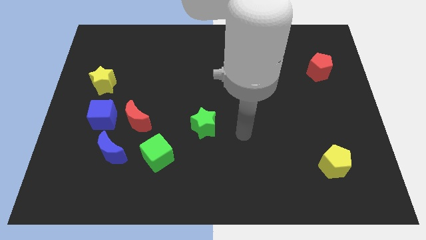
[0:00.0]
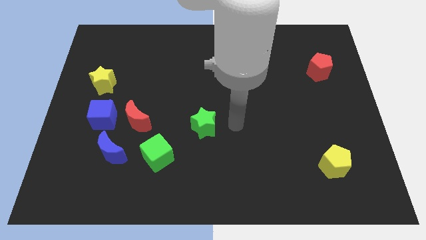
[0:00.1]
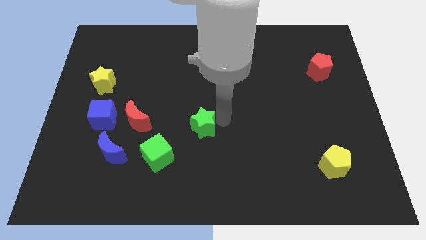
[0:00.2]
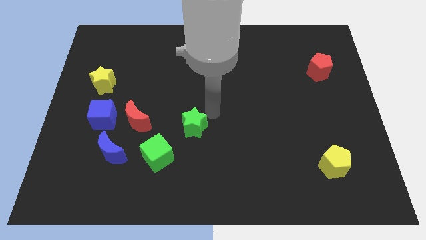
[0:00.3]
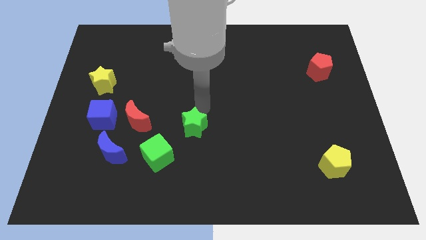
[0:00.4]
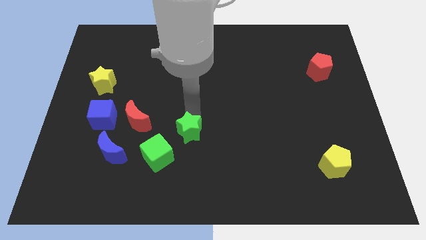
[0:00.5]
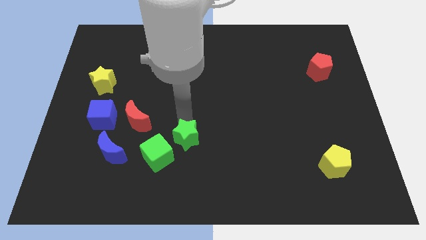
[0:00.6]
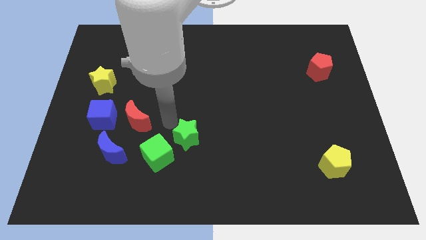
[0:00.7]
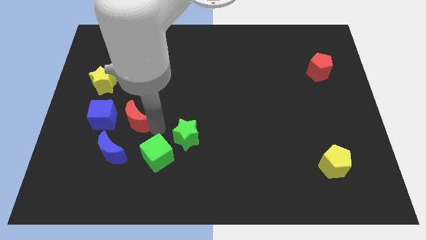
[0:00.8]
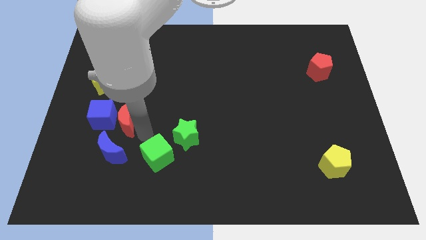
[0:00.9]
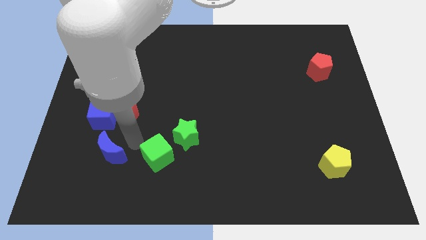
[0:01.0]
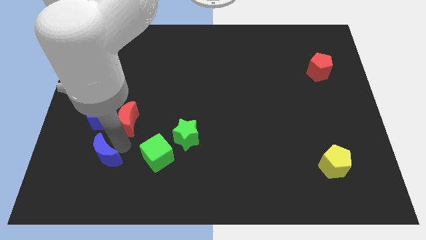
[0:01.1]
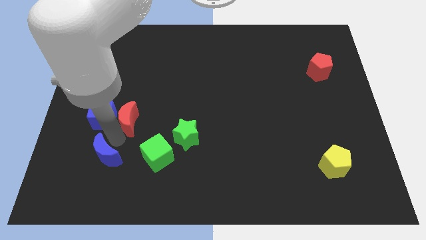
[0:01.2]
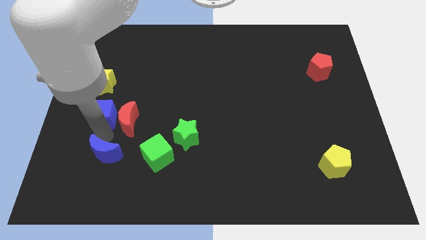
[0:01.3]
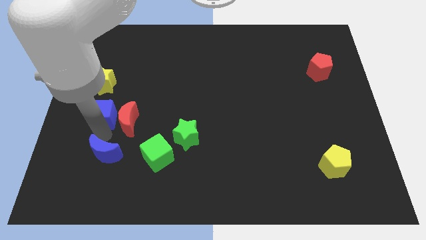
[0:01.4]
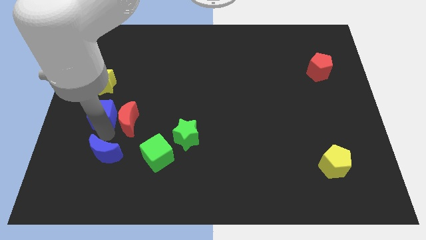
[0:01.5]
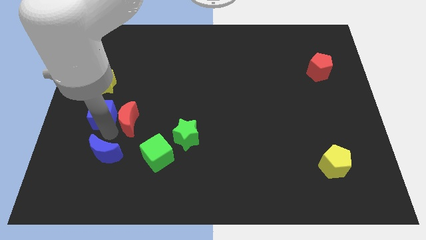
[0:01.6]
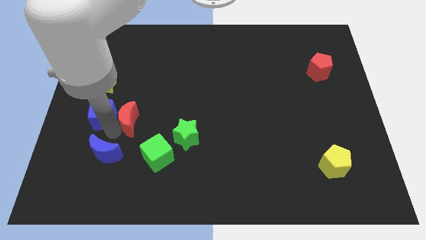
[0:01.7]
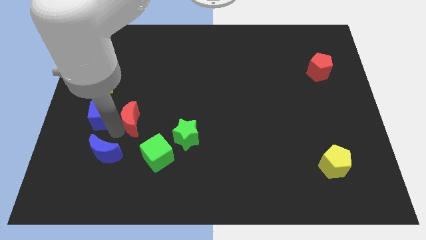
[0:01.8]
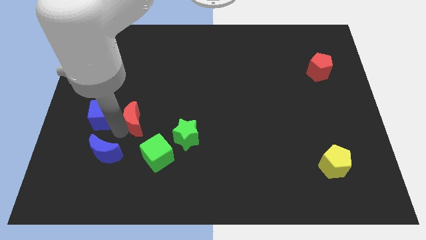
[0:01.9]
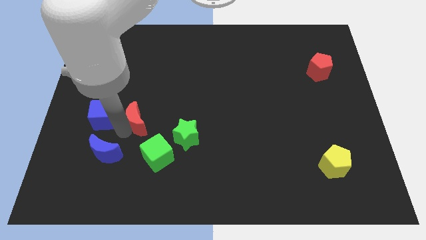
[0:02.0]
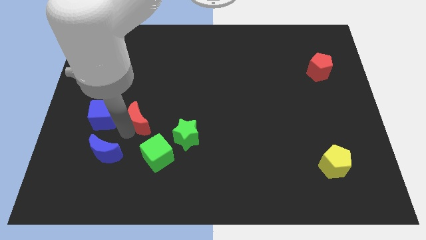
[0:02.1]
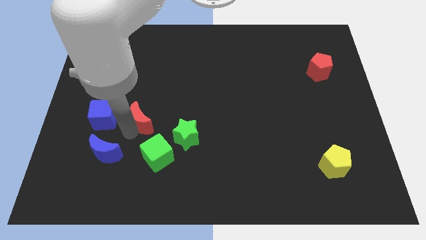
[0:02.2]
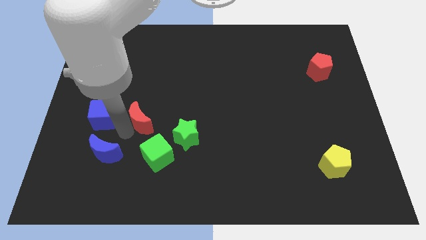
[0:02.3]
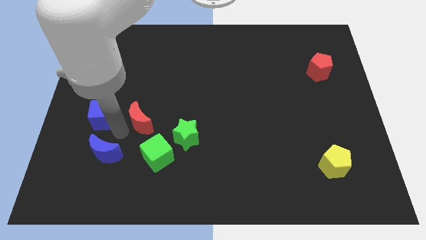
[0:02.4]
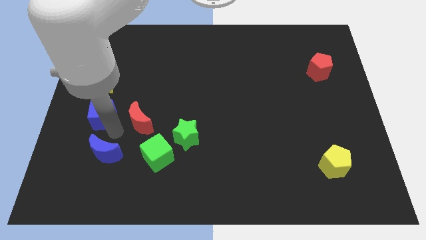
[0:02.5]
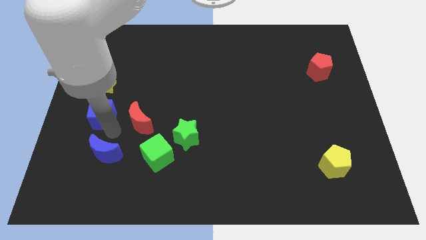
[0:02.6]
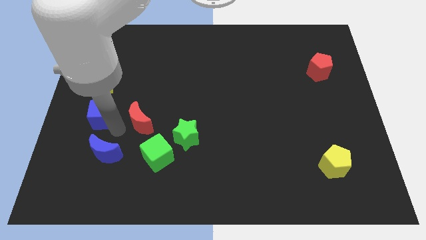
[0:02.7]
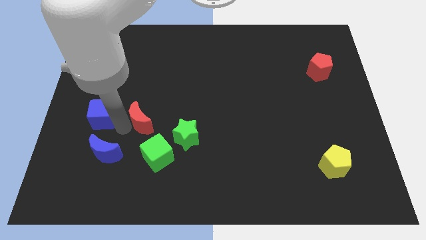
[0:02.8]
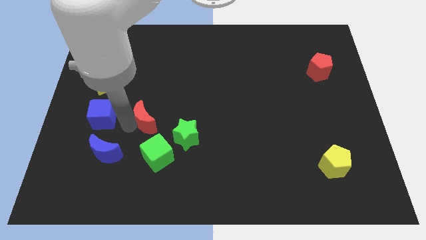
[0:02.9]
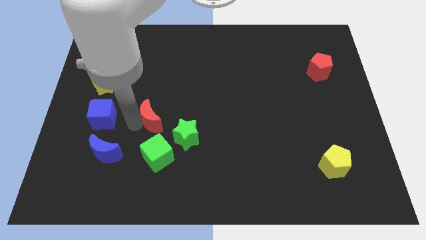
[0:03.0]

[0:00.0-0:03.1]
move the red moon away from the blue cube and blue moon

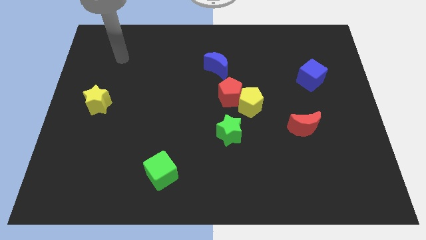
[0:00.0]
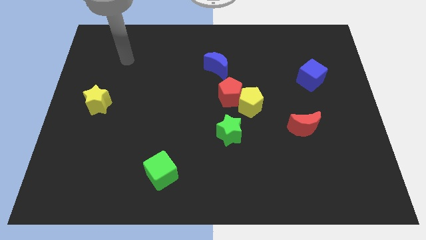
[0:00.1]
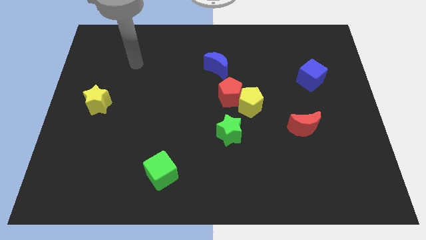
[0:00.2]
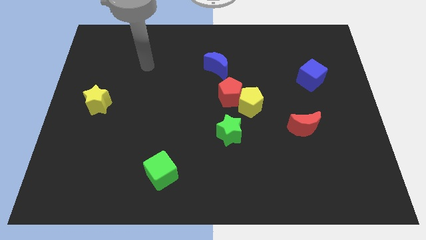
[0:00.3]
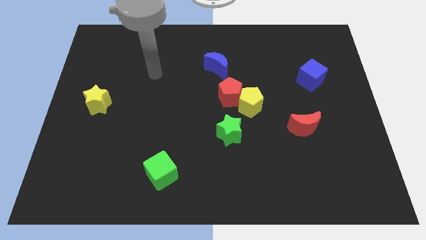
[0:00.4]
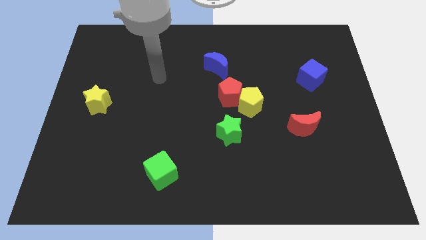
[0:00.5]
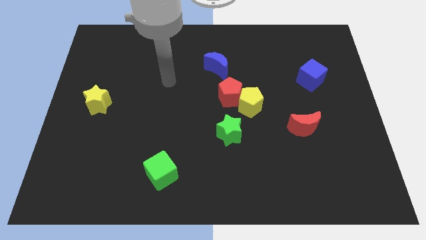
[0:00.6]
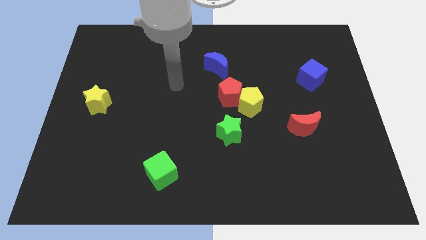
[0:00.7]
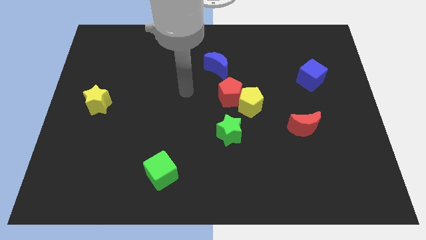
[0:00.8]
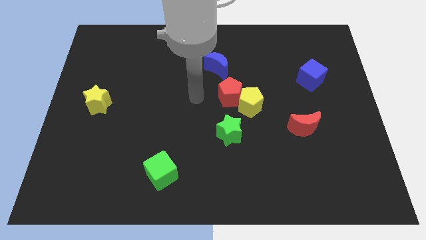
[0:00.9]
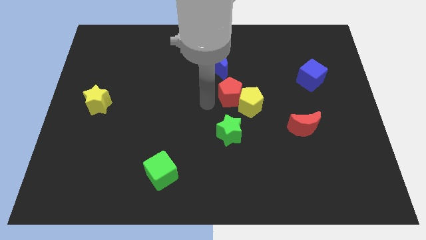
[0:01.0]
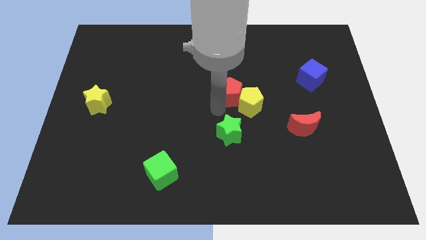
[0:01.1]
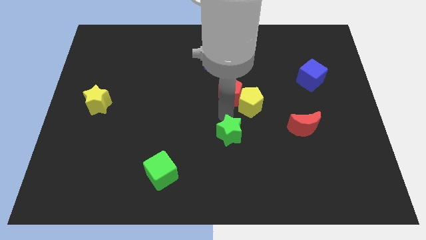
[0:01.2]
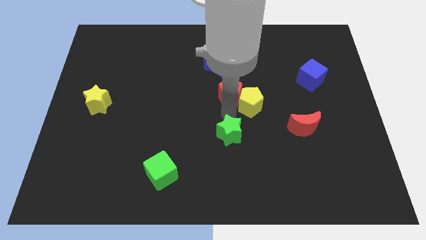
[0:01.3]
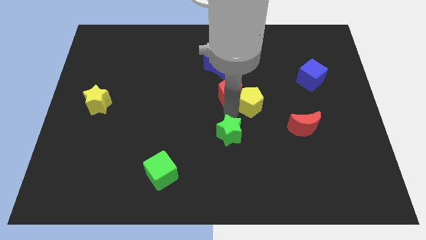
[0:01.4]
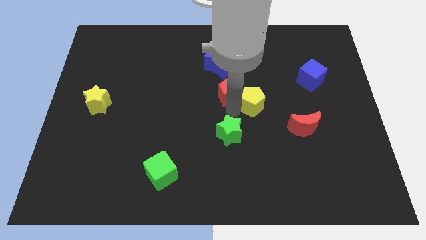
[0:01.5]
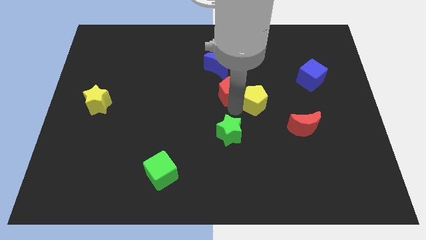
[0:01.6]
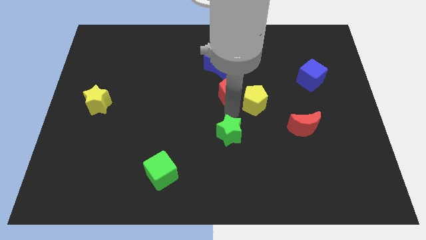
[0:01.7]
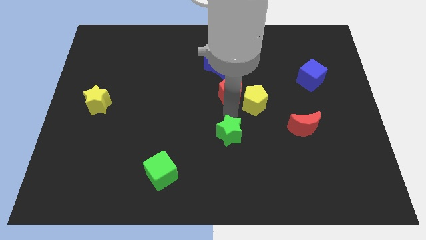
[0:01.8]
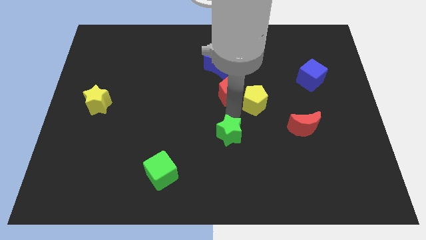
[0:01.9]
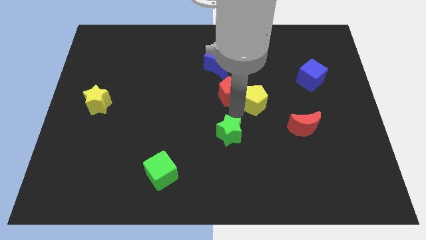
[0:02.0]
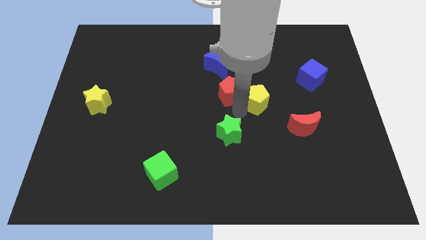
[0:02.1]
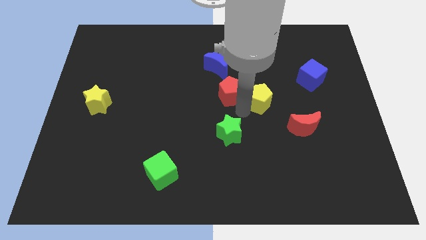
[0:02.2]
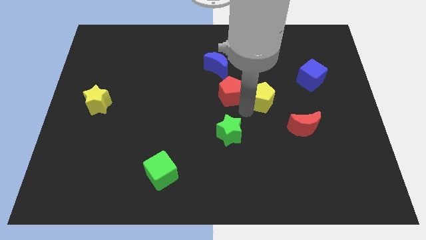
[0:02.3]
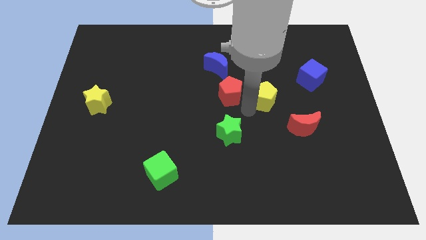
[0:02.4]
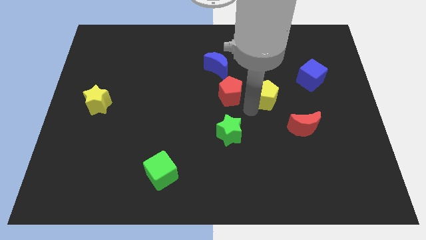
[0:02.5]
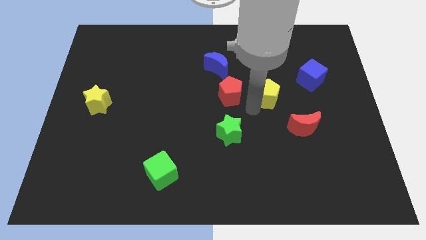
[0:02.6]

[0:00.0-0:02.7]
move the yellow pentagon away from the red pentagon and green star

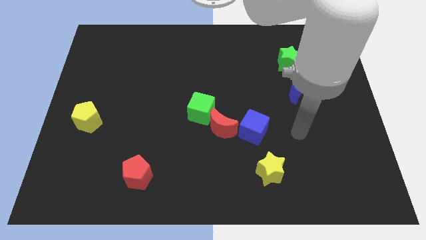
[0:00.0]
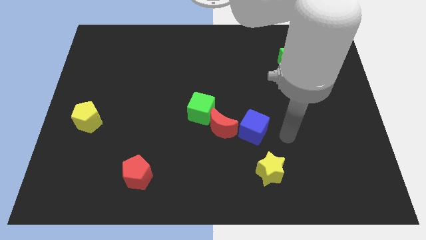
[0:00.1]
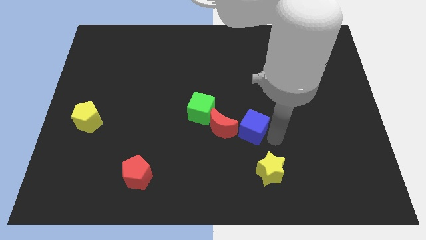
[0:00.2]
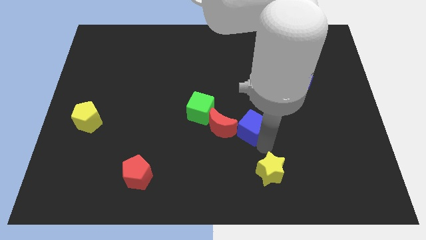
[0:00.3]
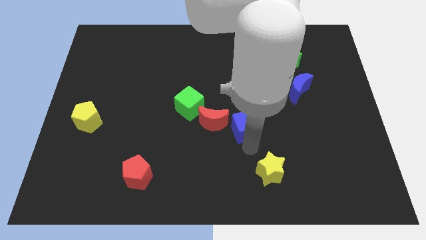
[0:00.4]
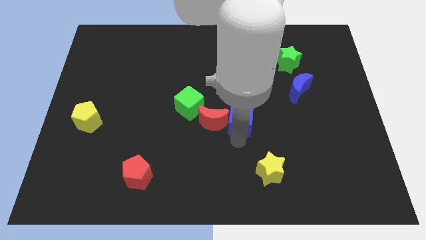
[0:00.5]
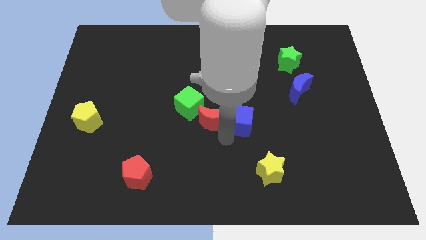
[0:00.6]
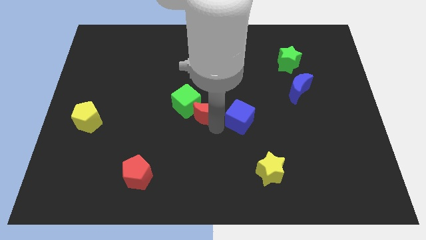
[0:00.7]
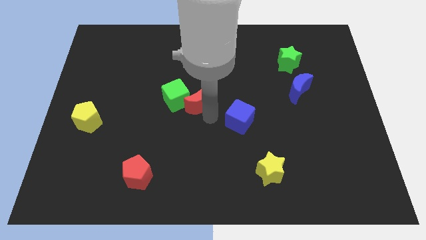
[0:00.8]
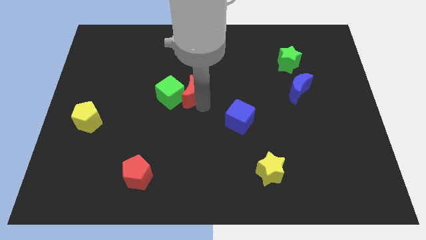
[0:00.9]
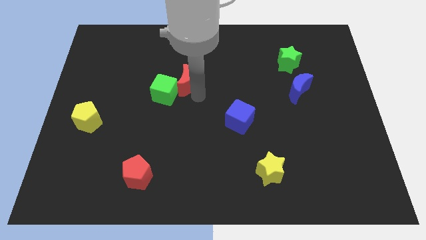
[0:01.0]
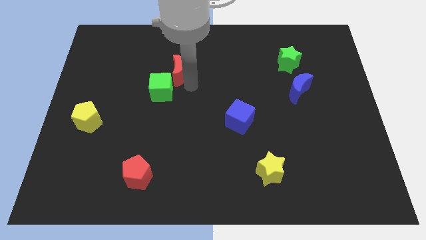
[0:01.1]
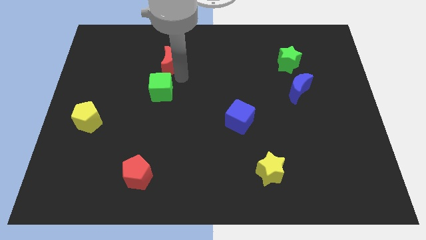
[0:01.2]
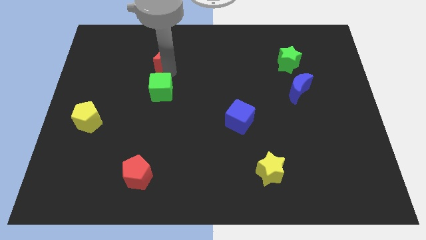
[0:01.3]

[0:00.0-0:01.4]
pull the green cube apart from the red moon

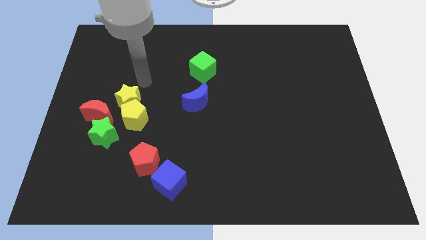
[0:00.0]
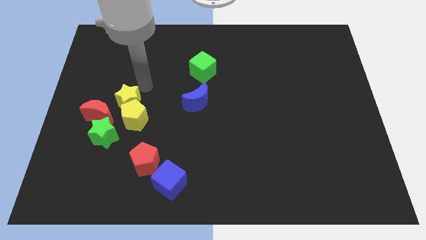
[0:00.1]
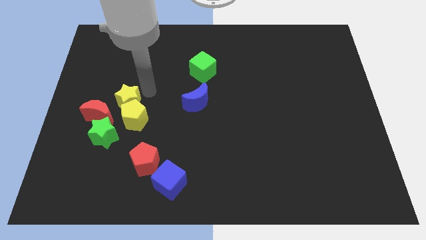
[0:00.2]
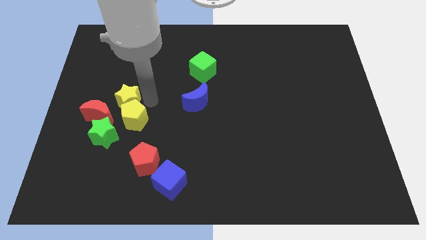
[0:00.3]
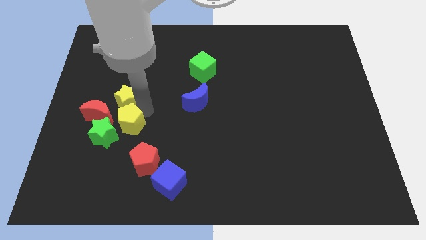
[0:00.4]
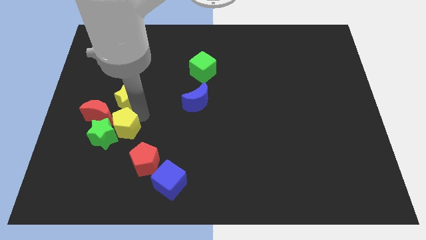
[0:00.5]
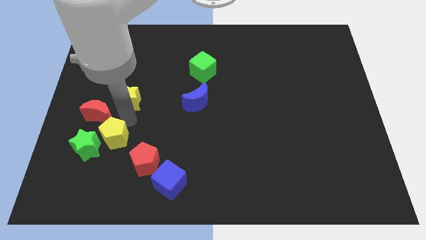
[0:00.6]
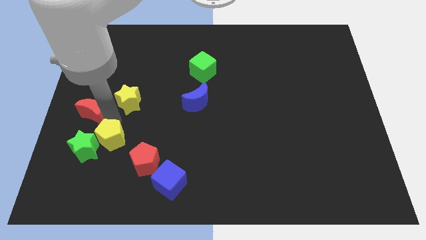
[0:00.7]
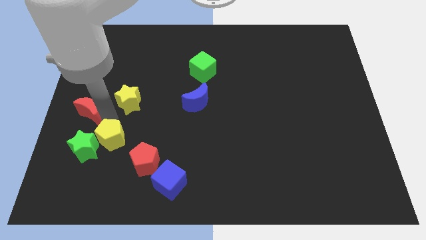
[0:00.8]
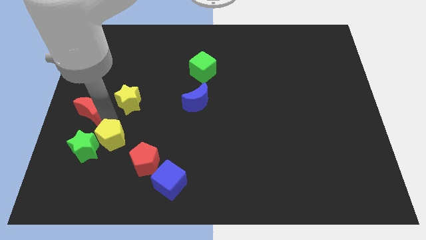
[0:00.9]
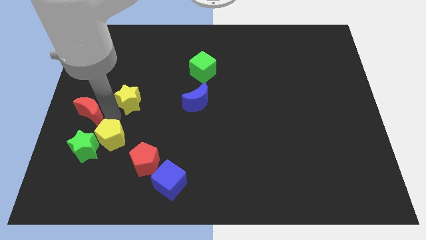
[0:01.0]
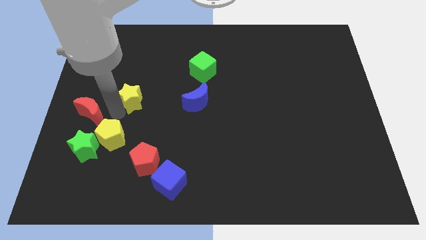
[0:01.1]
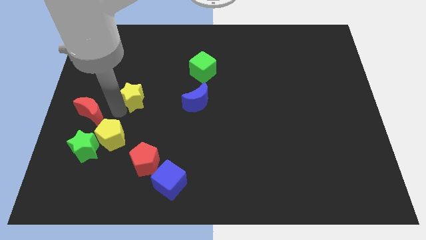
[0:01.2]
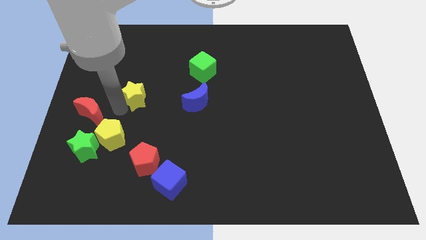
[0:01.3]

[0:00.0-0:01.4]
separate the yellow star from the yellow pentagon and red moon

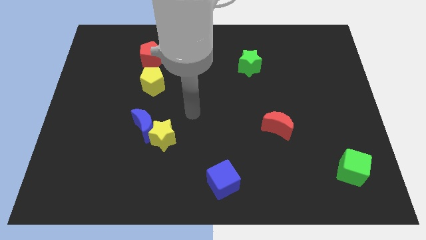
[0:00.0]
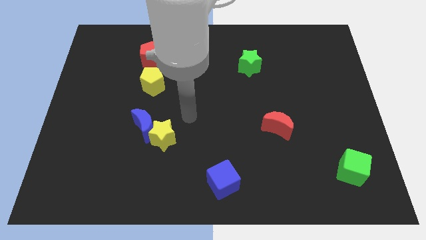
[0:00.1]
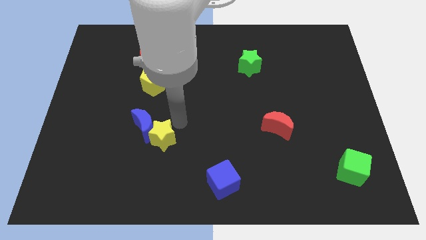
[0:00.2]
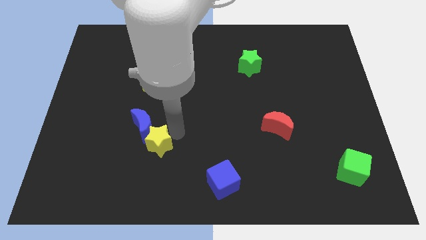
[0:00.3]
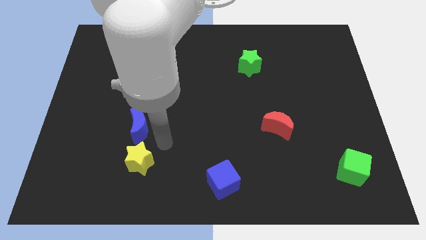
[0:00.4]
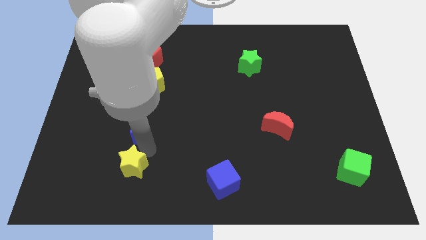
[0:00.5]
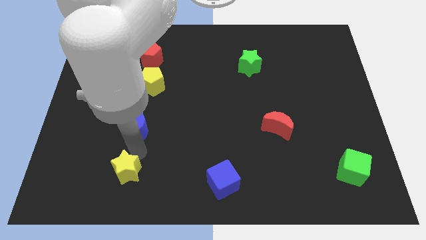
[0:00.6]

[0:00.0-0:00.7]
move the blue moon away from the yellow star
